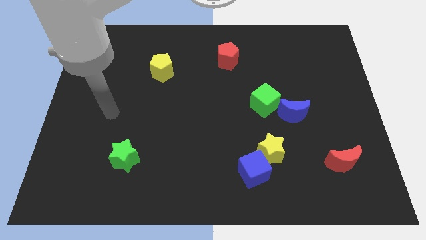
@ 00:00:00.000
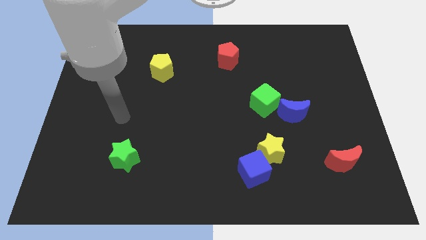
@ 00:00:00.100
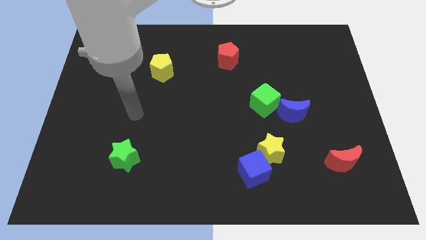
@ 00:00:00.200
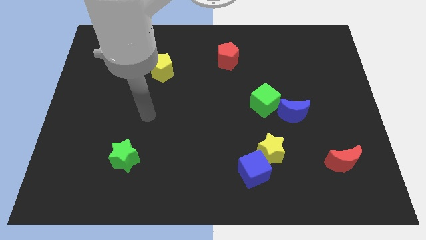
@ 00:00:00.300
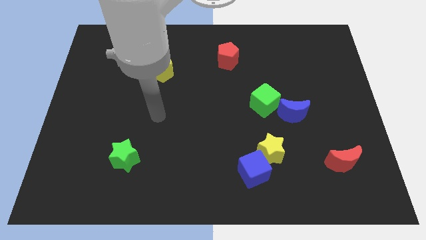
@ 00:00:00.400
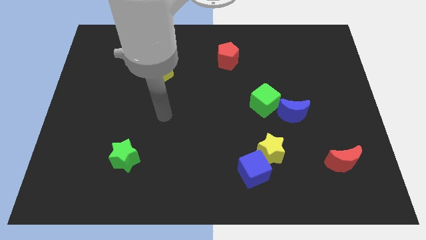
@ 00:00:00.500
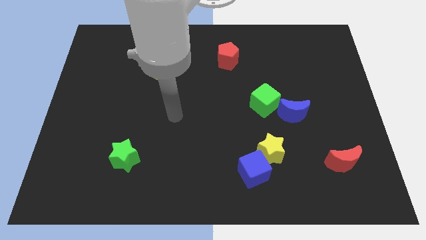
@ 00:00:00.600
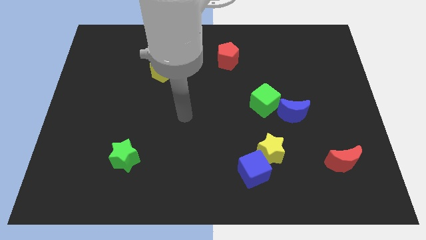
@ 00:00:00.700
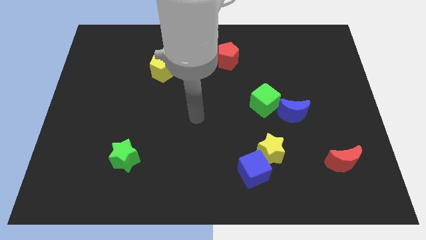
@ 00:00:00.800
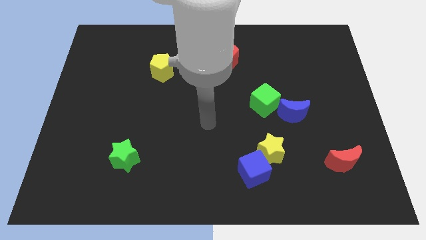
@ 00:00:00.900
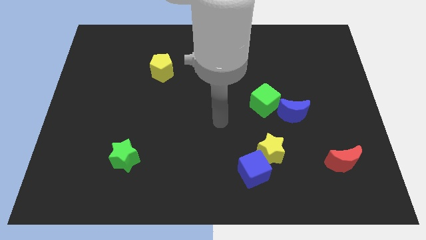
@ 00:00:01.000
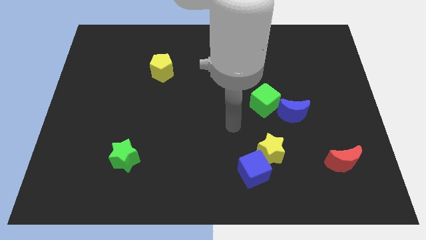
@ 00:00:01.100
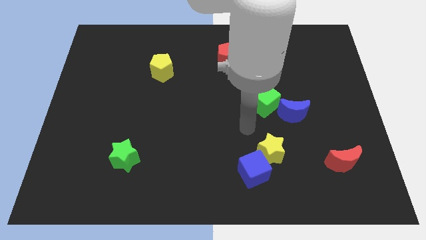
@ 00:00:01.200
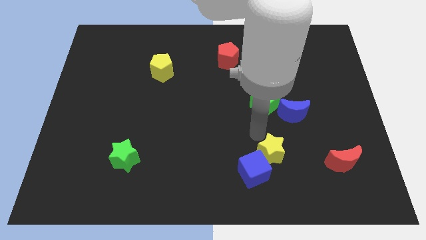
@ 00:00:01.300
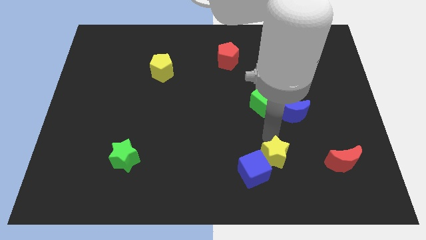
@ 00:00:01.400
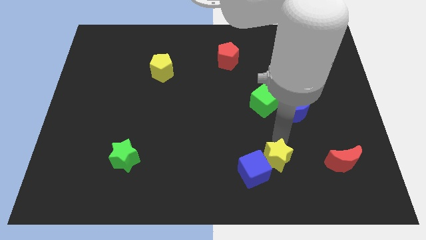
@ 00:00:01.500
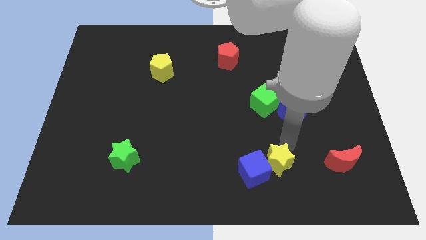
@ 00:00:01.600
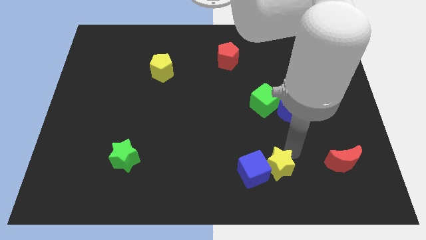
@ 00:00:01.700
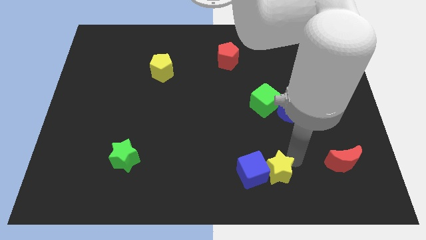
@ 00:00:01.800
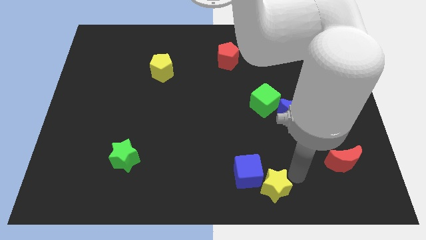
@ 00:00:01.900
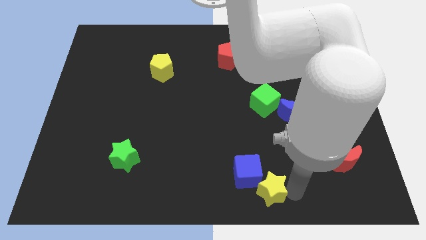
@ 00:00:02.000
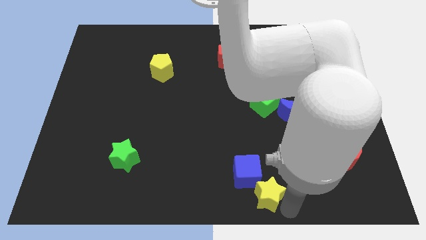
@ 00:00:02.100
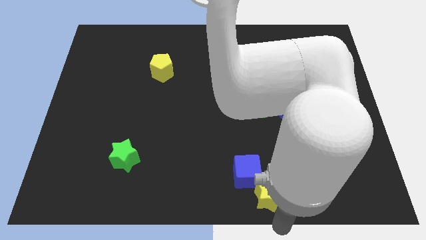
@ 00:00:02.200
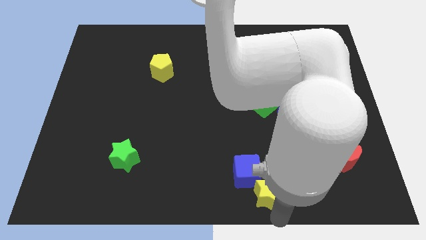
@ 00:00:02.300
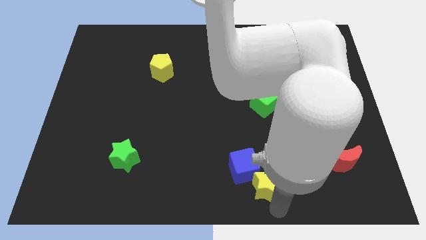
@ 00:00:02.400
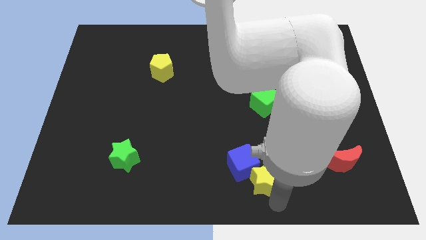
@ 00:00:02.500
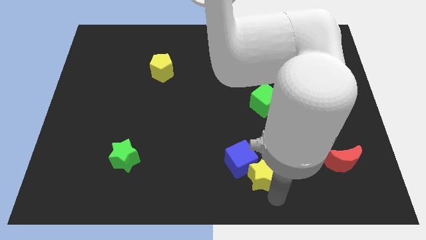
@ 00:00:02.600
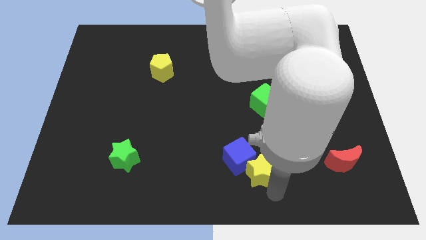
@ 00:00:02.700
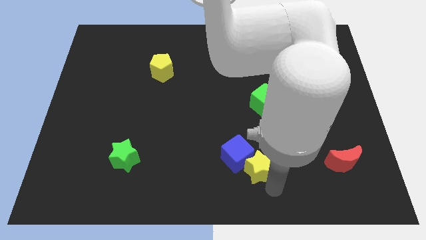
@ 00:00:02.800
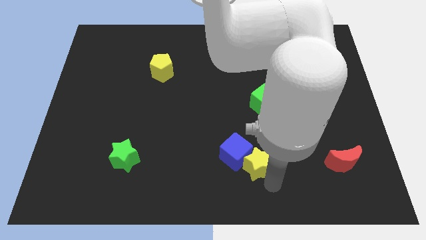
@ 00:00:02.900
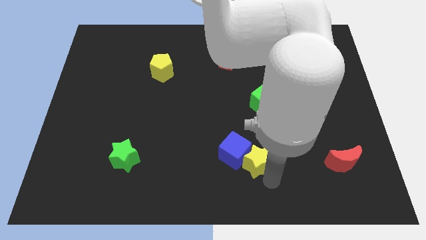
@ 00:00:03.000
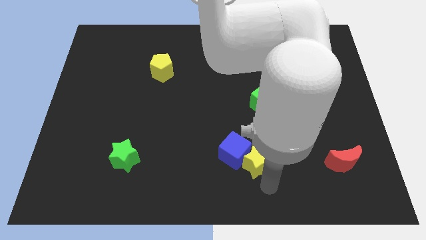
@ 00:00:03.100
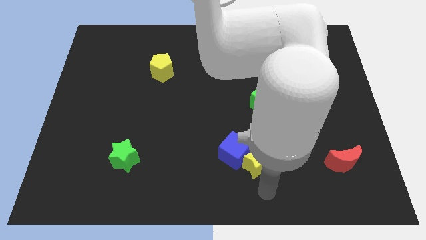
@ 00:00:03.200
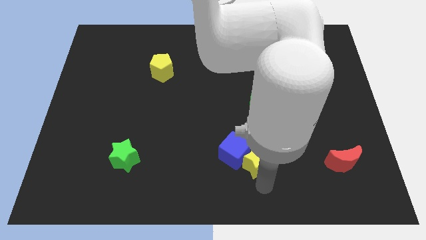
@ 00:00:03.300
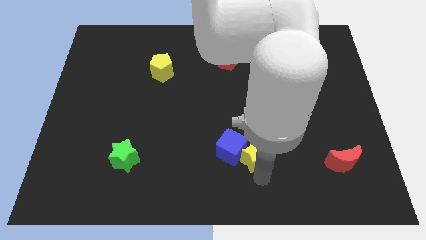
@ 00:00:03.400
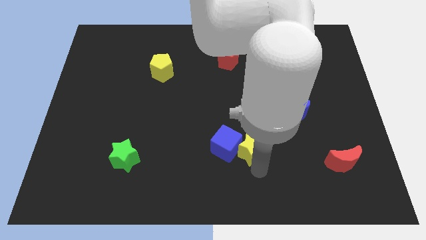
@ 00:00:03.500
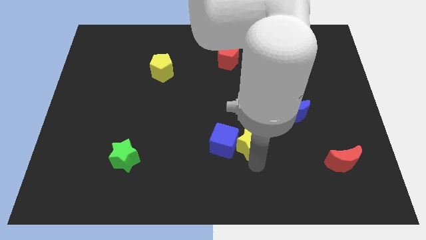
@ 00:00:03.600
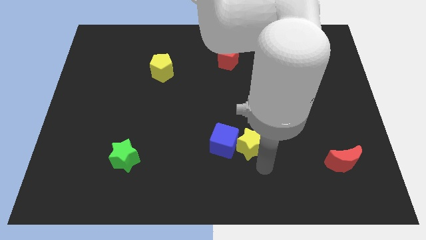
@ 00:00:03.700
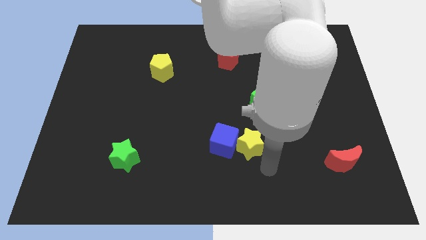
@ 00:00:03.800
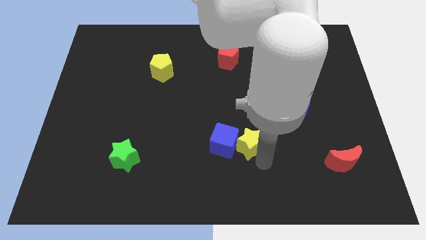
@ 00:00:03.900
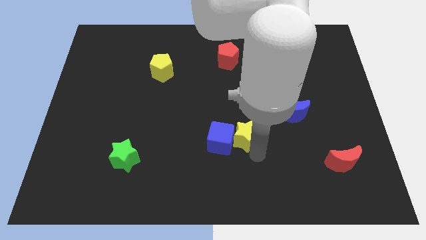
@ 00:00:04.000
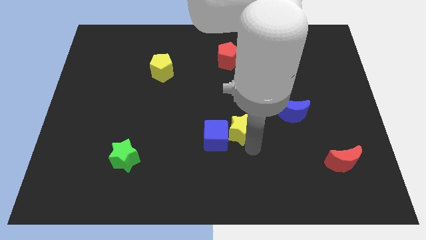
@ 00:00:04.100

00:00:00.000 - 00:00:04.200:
move the yellow star a little bit diagonally up and to the left

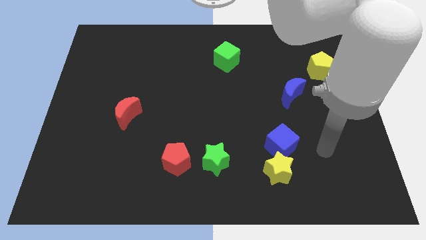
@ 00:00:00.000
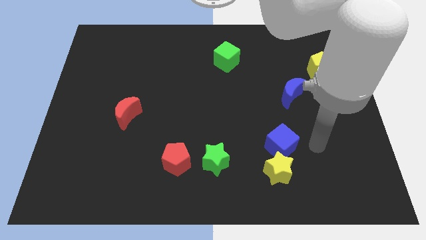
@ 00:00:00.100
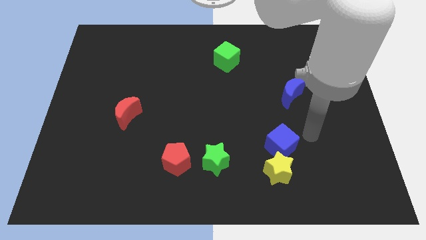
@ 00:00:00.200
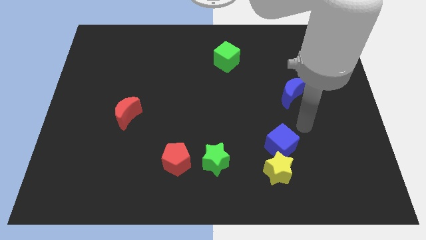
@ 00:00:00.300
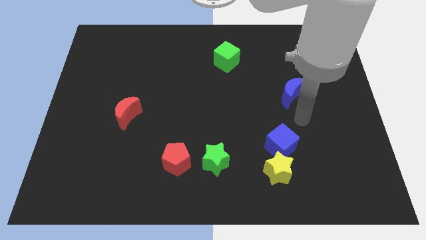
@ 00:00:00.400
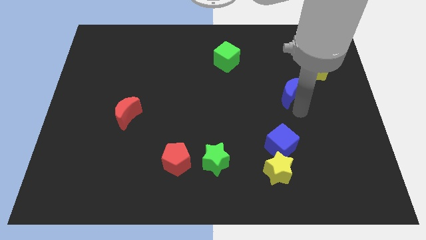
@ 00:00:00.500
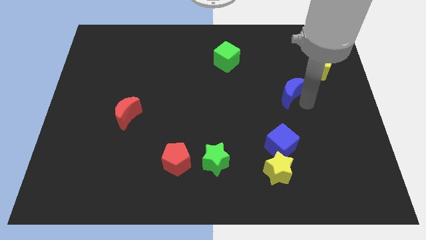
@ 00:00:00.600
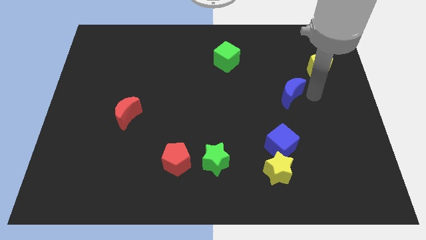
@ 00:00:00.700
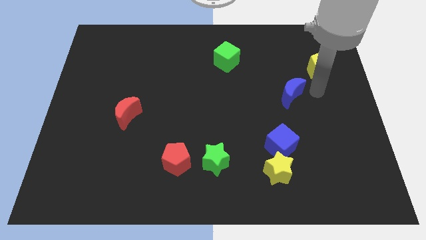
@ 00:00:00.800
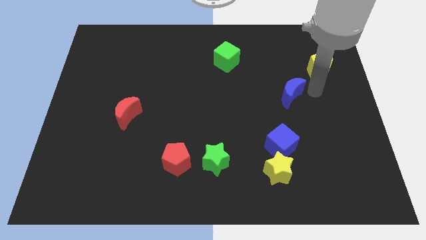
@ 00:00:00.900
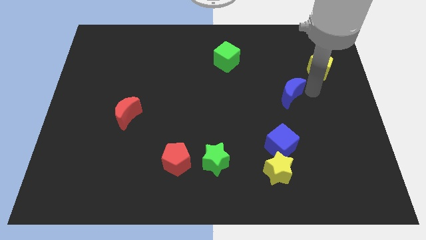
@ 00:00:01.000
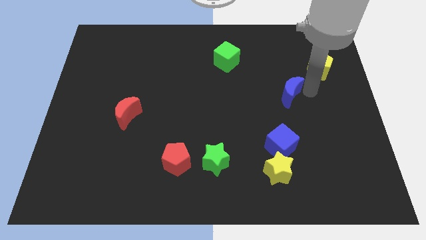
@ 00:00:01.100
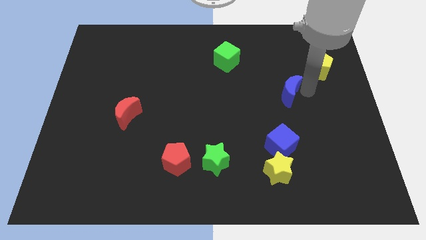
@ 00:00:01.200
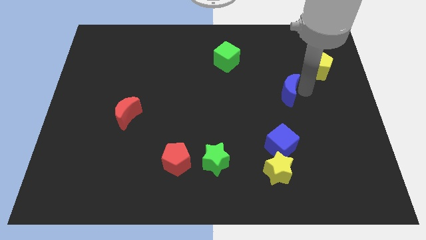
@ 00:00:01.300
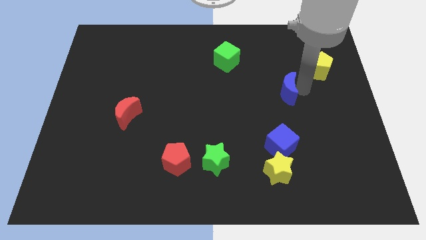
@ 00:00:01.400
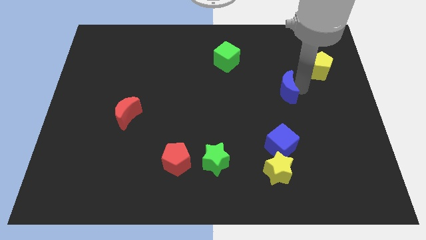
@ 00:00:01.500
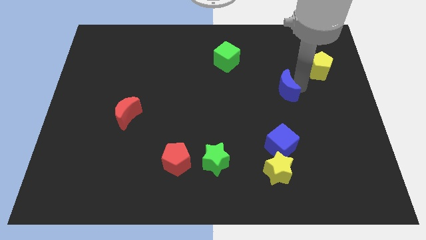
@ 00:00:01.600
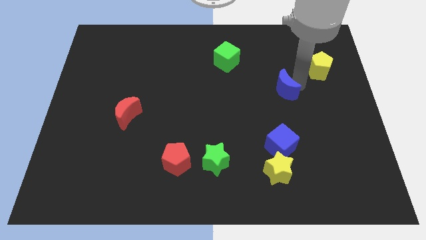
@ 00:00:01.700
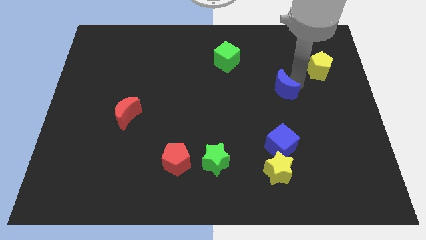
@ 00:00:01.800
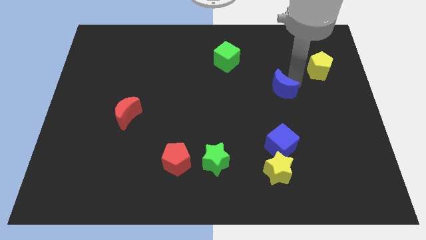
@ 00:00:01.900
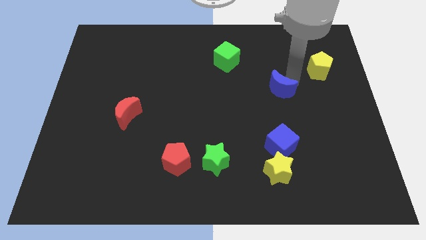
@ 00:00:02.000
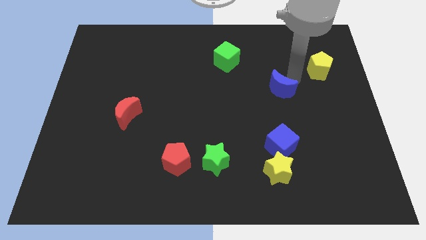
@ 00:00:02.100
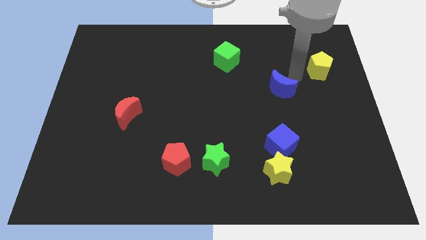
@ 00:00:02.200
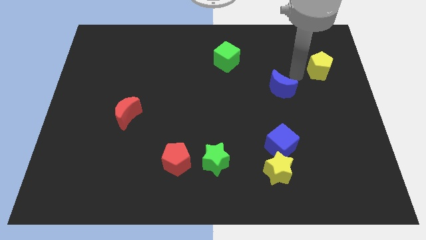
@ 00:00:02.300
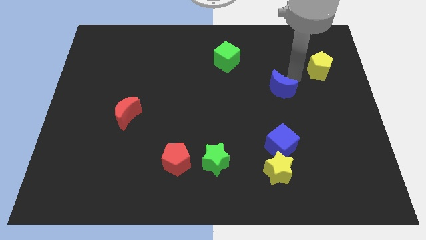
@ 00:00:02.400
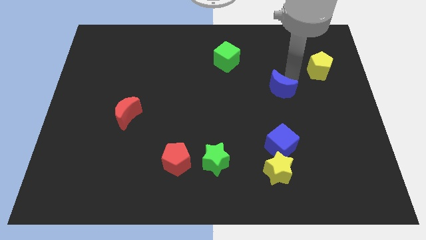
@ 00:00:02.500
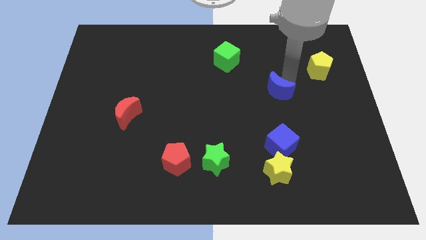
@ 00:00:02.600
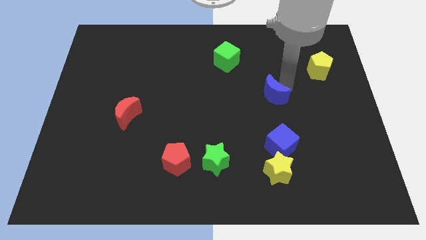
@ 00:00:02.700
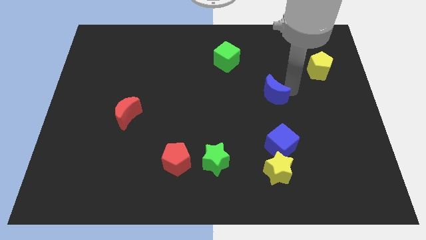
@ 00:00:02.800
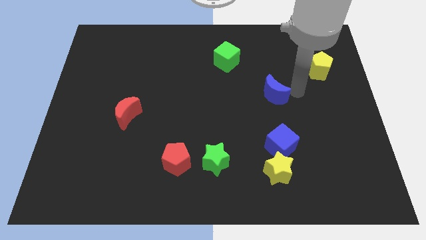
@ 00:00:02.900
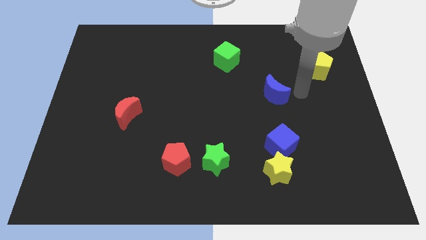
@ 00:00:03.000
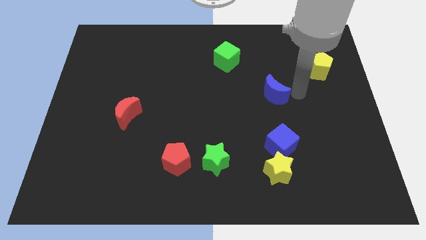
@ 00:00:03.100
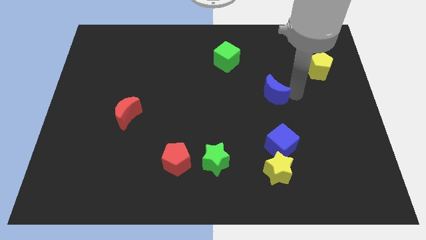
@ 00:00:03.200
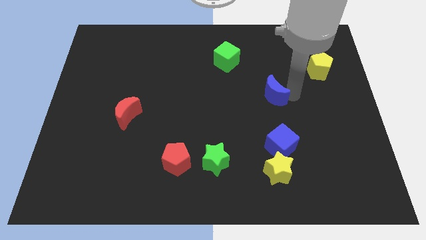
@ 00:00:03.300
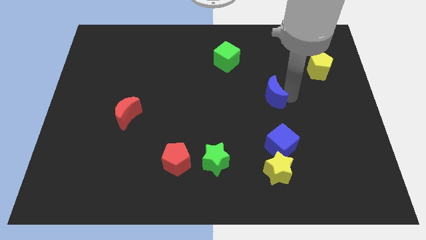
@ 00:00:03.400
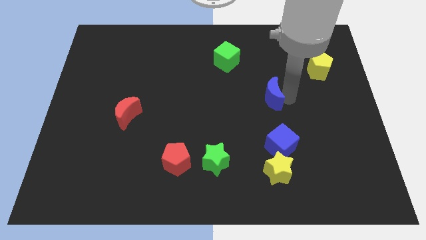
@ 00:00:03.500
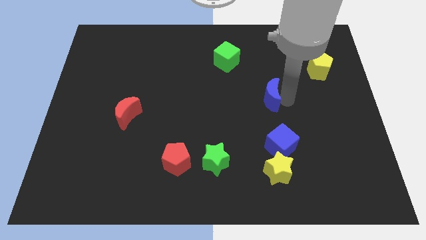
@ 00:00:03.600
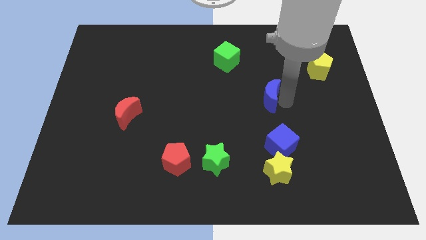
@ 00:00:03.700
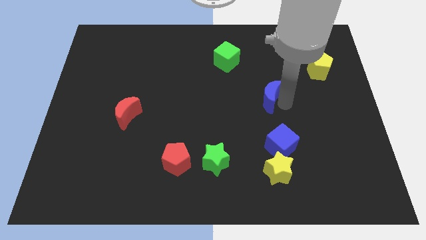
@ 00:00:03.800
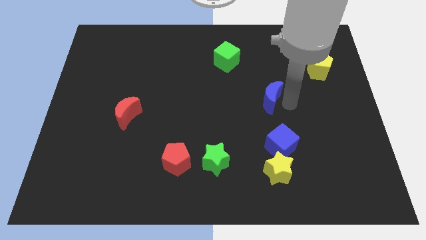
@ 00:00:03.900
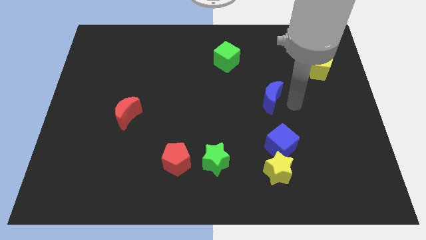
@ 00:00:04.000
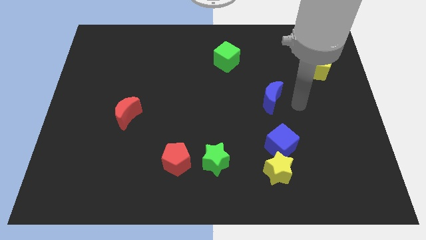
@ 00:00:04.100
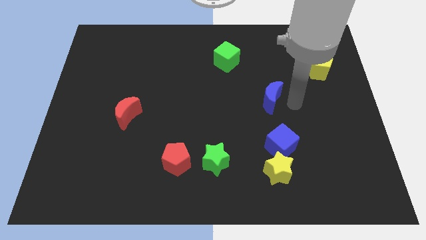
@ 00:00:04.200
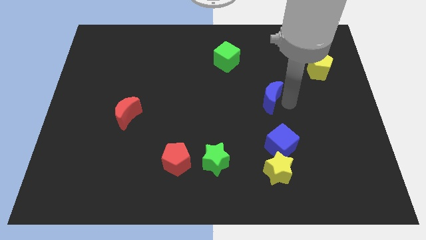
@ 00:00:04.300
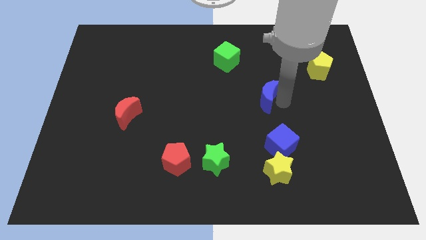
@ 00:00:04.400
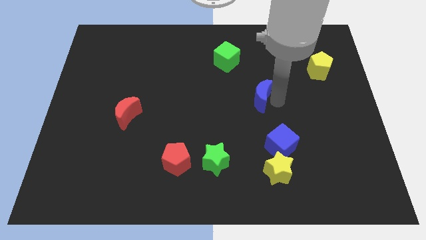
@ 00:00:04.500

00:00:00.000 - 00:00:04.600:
push the blue moon a bit to the left
